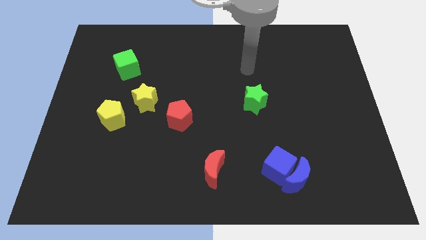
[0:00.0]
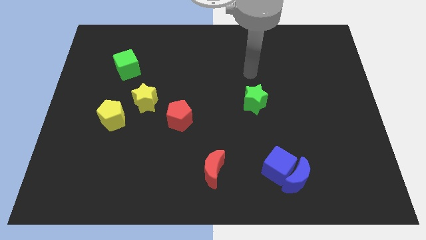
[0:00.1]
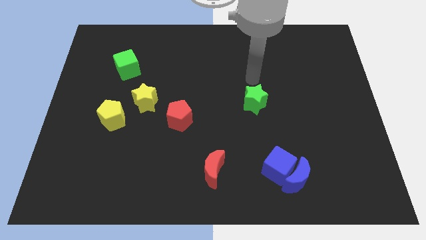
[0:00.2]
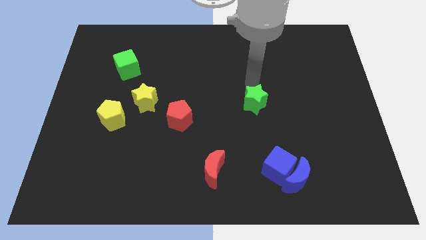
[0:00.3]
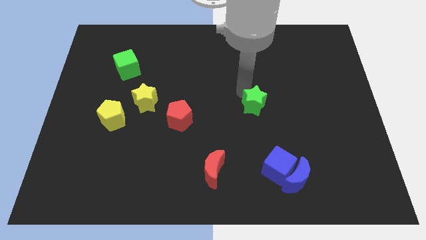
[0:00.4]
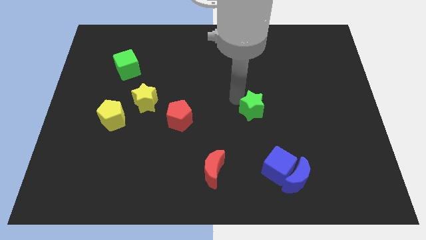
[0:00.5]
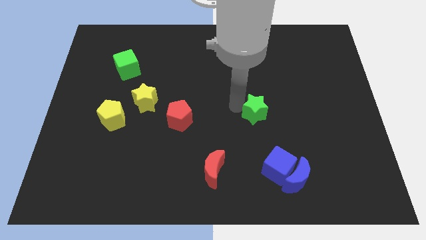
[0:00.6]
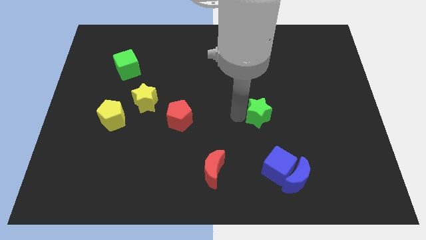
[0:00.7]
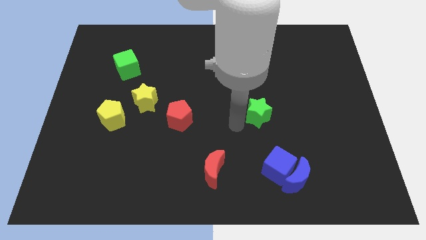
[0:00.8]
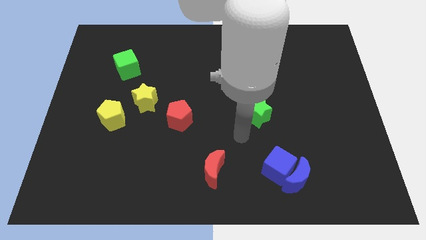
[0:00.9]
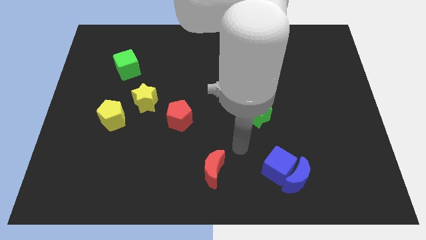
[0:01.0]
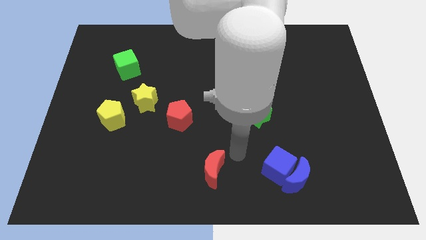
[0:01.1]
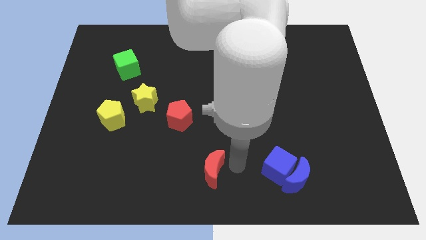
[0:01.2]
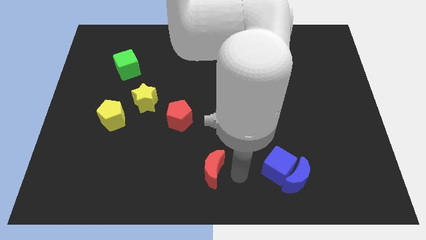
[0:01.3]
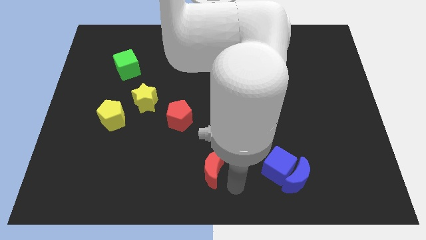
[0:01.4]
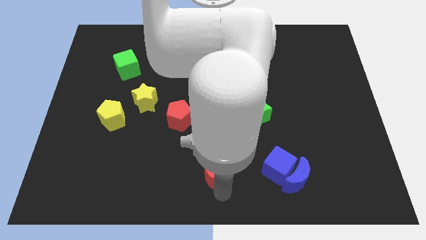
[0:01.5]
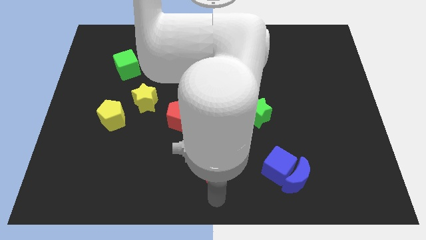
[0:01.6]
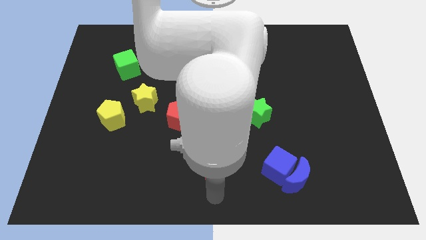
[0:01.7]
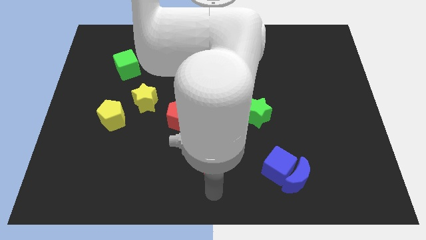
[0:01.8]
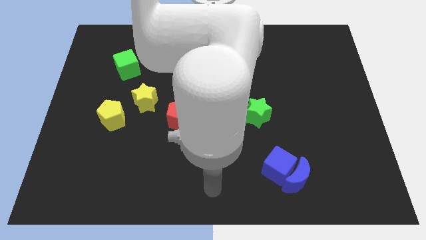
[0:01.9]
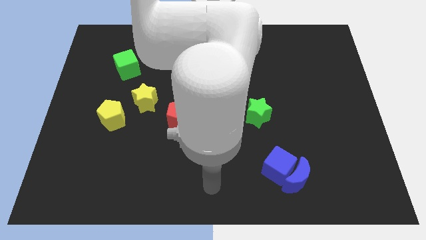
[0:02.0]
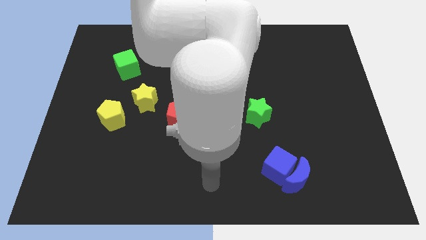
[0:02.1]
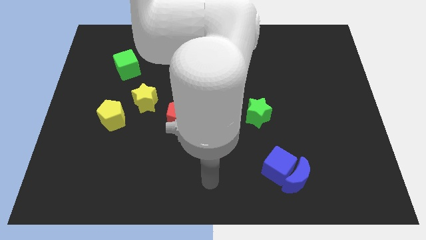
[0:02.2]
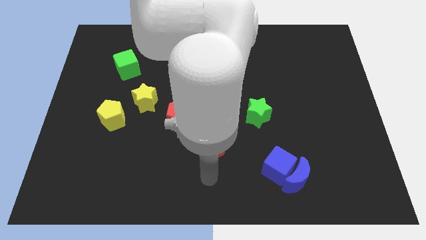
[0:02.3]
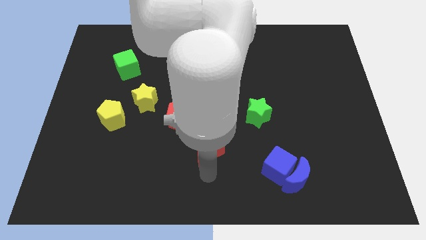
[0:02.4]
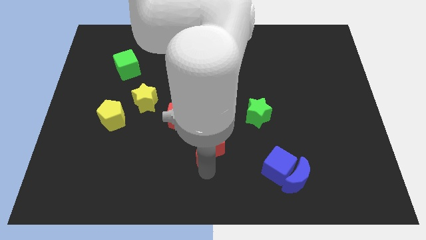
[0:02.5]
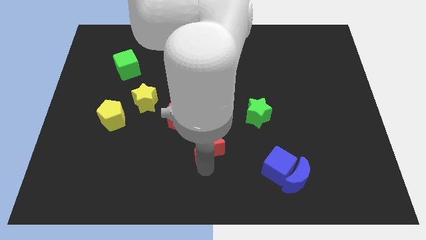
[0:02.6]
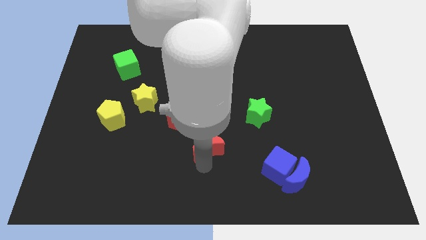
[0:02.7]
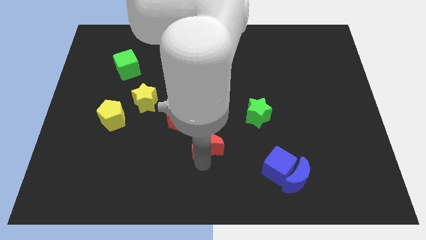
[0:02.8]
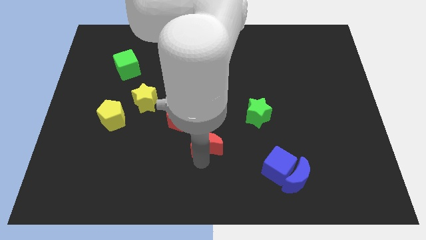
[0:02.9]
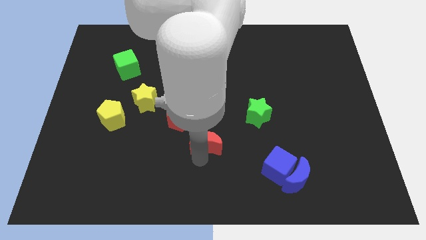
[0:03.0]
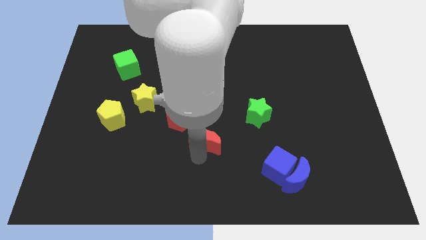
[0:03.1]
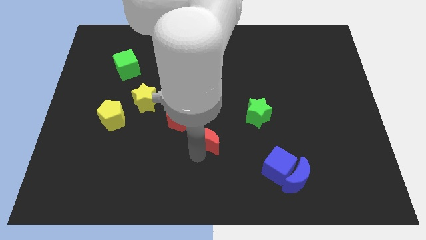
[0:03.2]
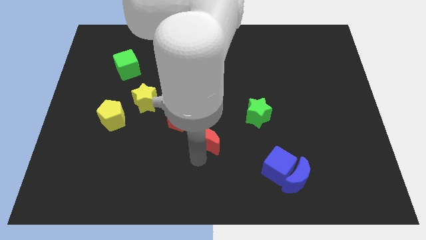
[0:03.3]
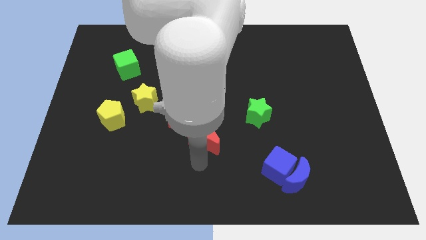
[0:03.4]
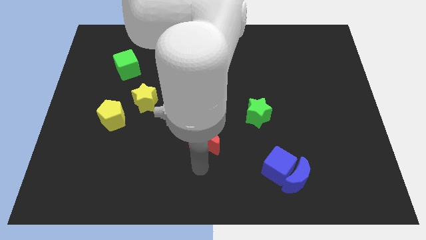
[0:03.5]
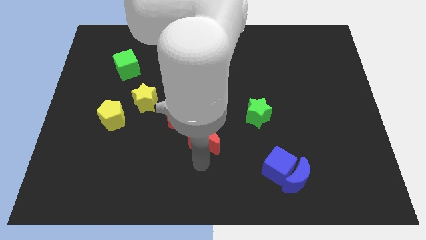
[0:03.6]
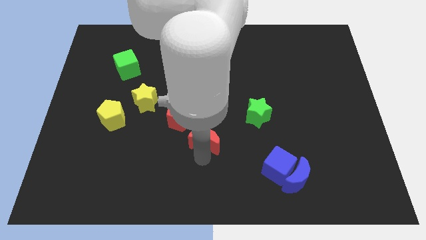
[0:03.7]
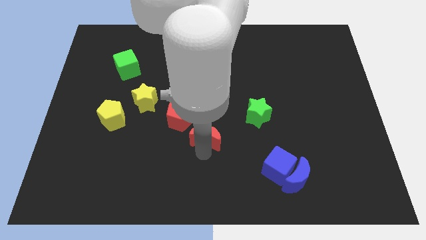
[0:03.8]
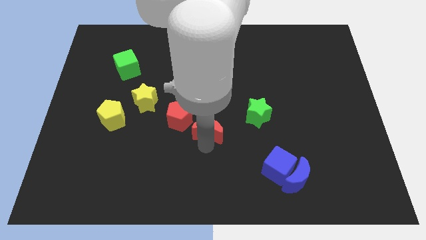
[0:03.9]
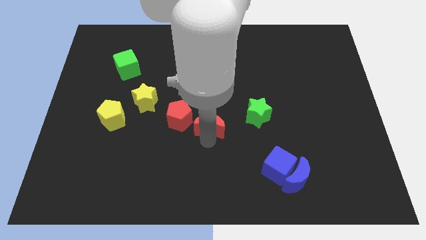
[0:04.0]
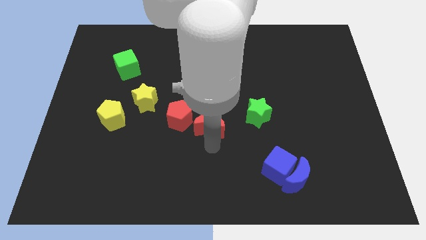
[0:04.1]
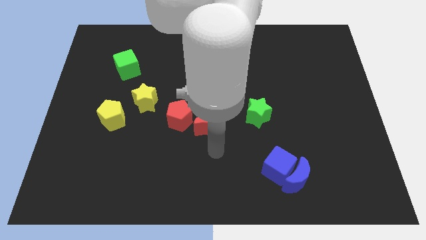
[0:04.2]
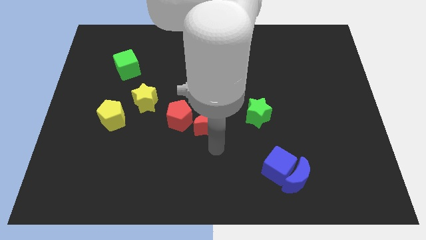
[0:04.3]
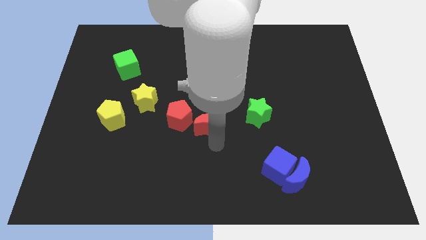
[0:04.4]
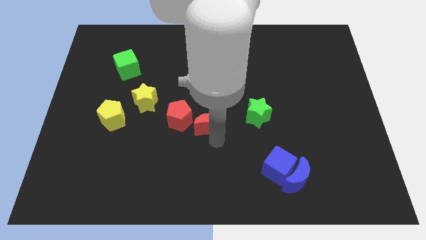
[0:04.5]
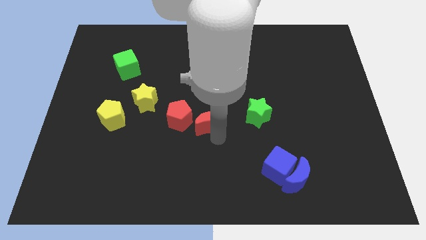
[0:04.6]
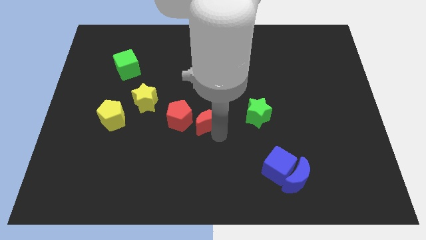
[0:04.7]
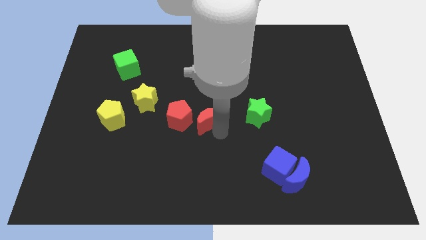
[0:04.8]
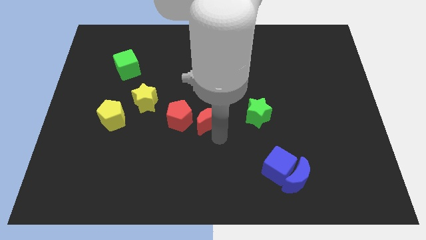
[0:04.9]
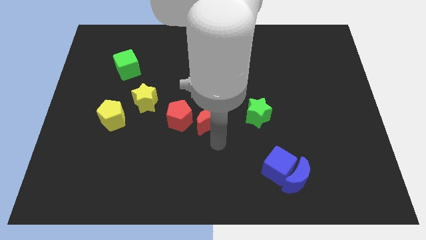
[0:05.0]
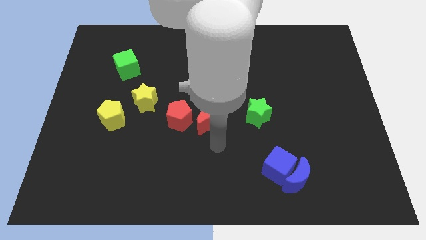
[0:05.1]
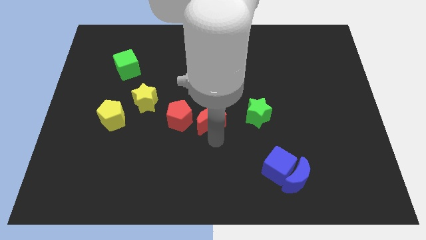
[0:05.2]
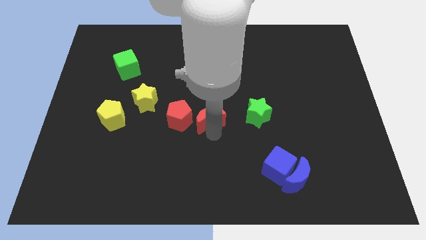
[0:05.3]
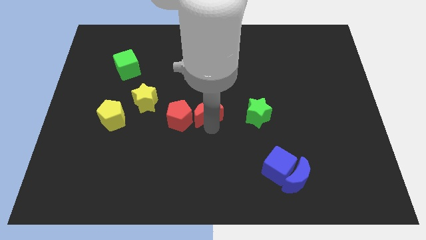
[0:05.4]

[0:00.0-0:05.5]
move the red moon to the top right of the red pentagon

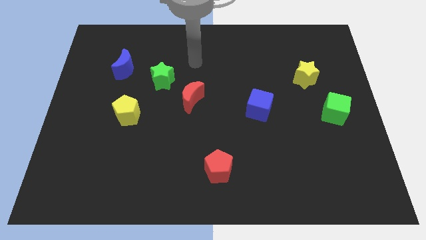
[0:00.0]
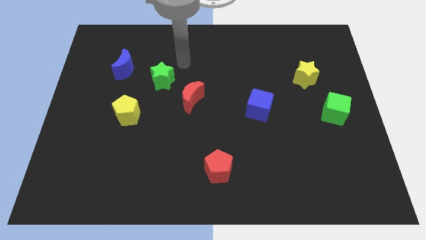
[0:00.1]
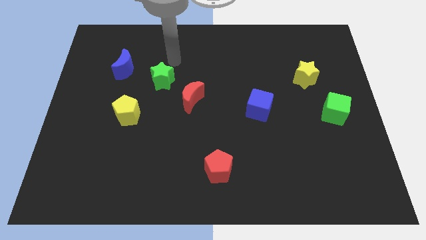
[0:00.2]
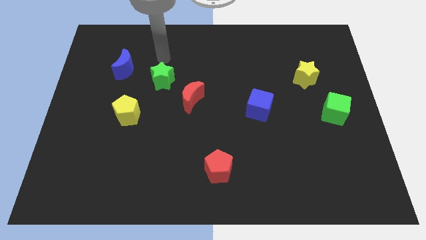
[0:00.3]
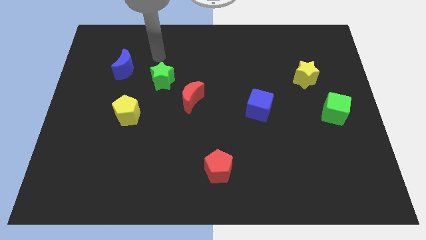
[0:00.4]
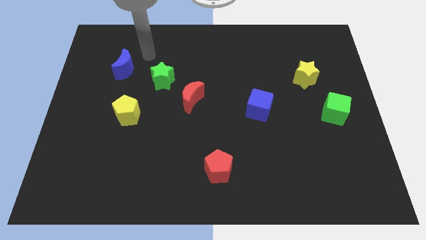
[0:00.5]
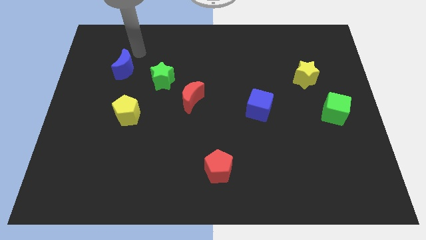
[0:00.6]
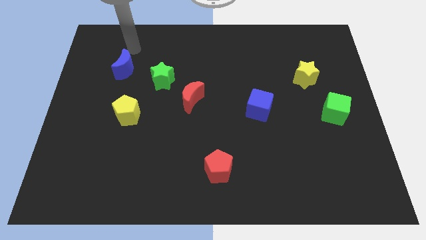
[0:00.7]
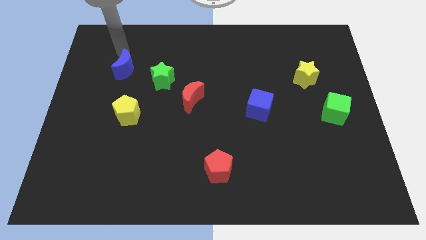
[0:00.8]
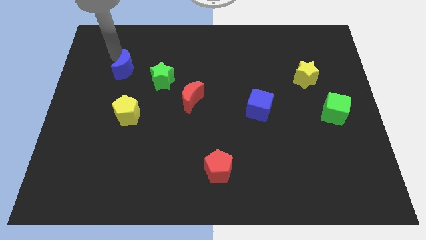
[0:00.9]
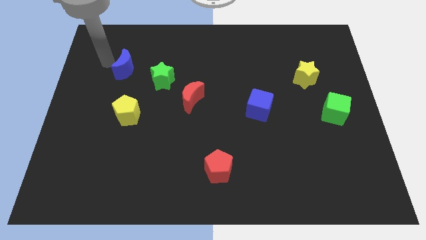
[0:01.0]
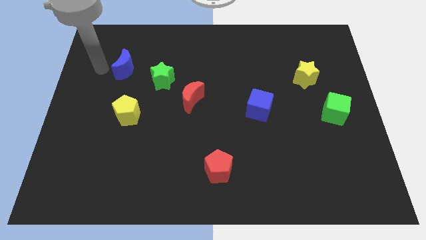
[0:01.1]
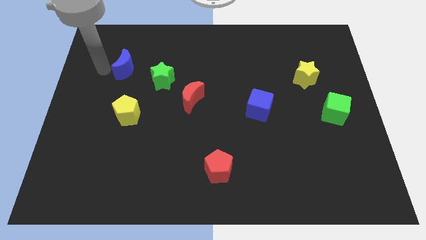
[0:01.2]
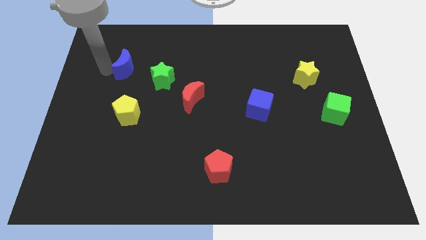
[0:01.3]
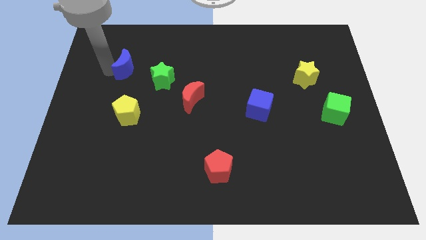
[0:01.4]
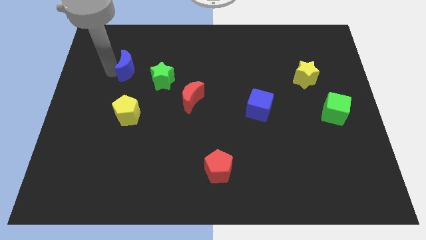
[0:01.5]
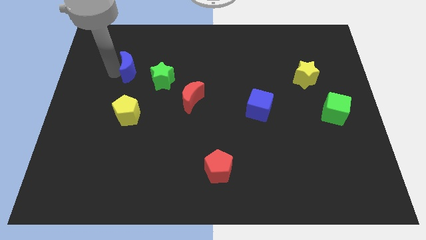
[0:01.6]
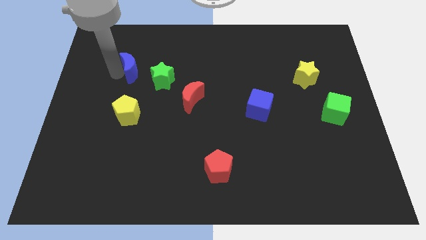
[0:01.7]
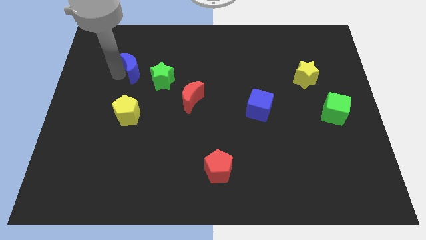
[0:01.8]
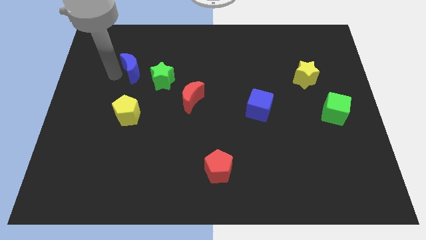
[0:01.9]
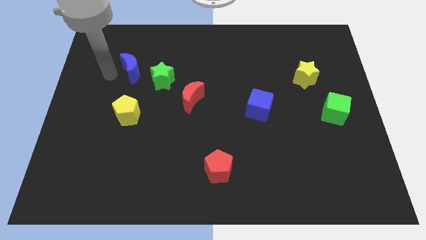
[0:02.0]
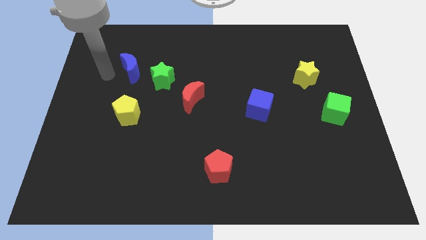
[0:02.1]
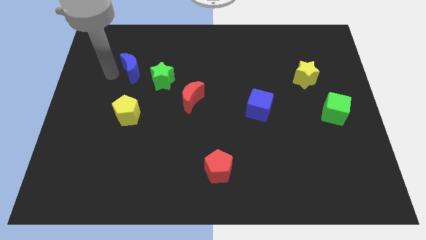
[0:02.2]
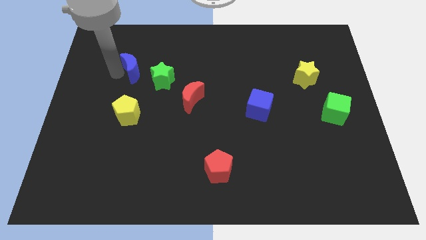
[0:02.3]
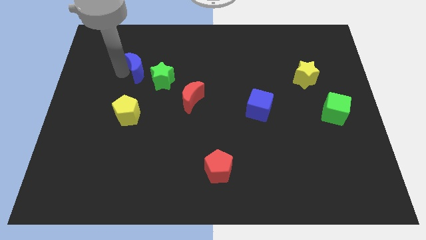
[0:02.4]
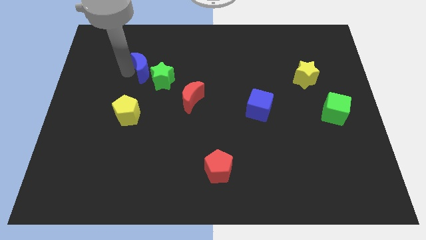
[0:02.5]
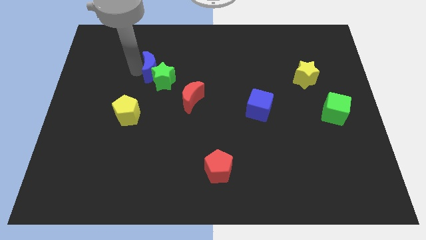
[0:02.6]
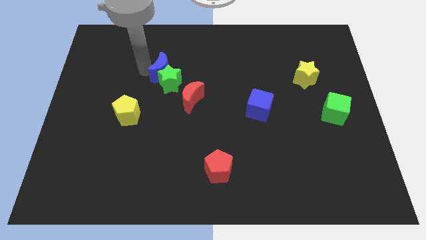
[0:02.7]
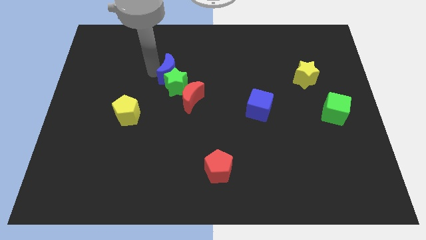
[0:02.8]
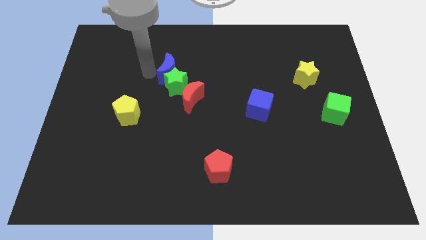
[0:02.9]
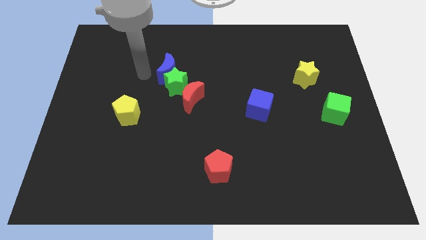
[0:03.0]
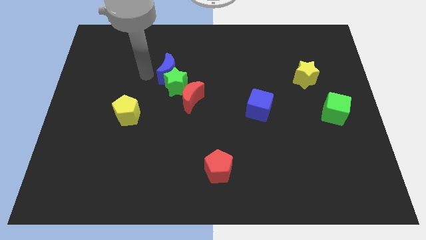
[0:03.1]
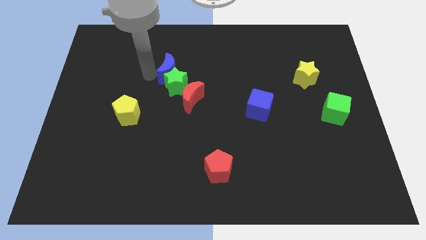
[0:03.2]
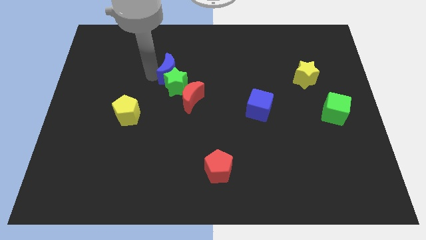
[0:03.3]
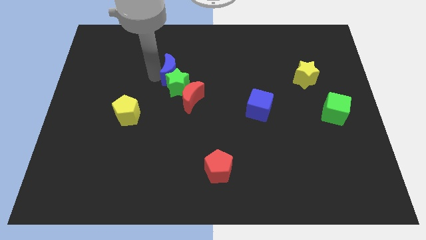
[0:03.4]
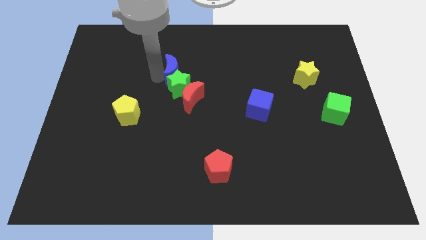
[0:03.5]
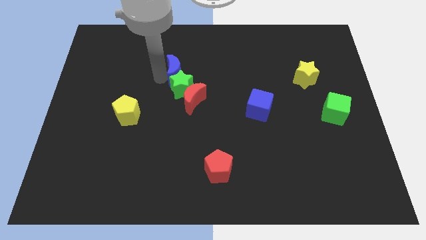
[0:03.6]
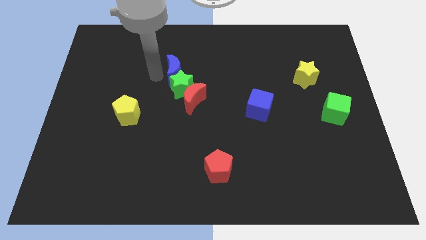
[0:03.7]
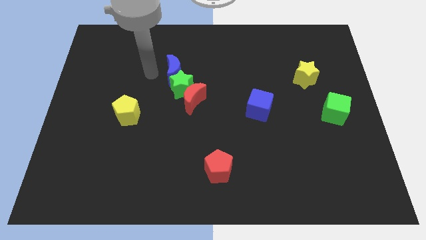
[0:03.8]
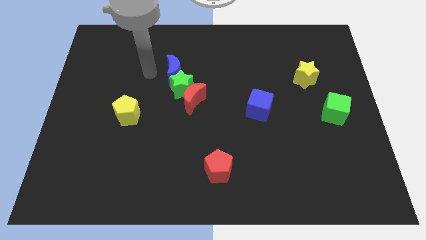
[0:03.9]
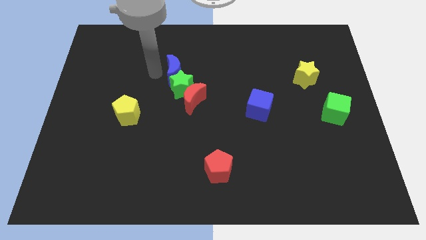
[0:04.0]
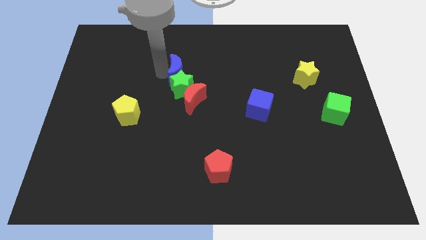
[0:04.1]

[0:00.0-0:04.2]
move the blue moon to the top right side of the green star
